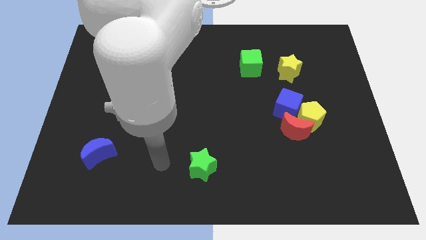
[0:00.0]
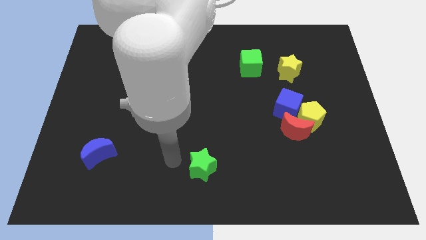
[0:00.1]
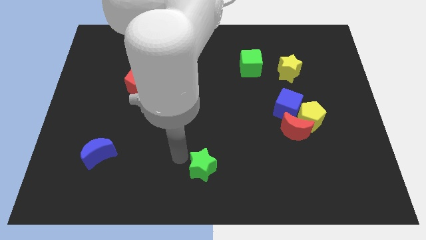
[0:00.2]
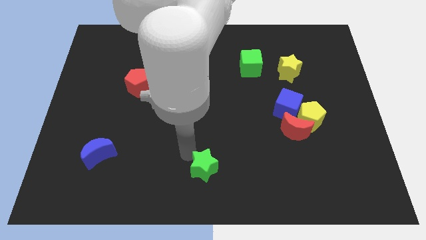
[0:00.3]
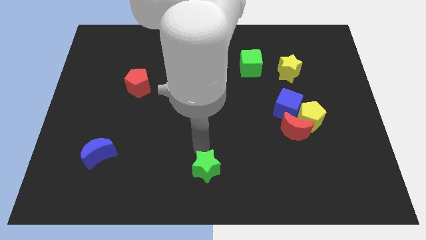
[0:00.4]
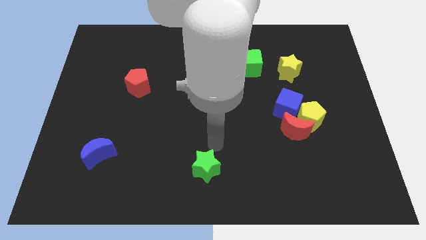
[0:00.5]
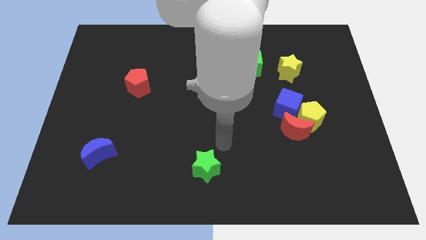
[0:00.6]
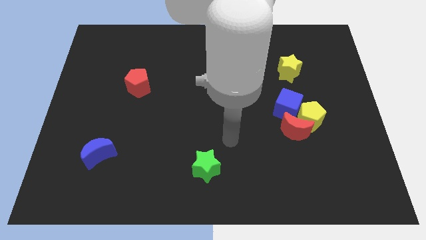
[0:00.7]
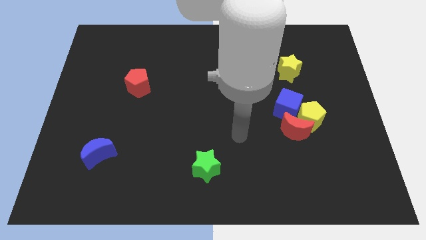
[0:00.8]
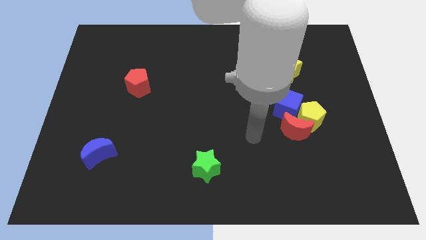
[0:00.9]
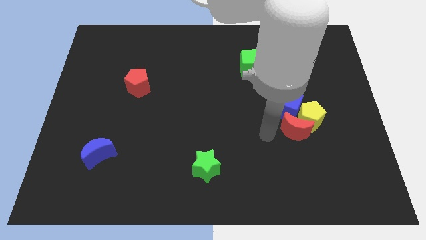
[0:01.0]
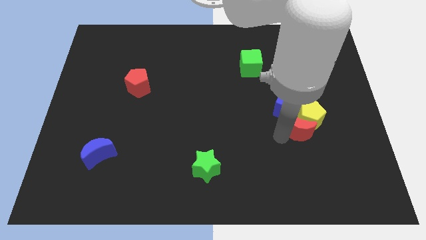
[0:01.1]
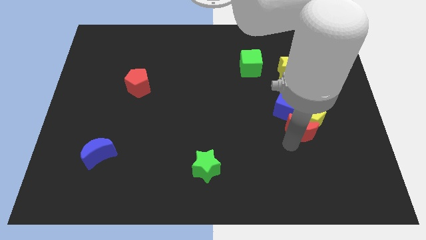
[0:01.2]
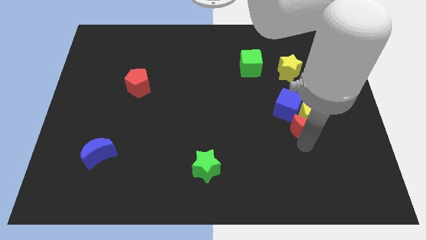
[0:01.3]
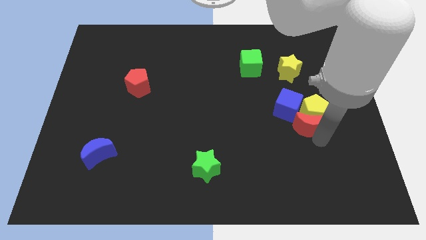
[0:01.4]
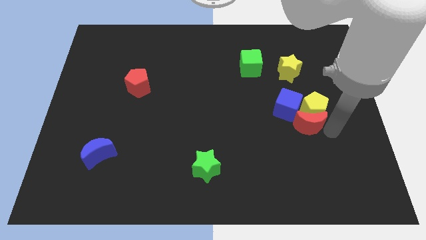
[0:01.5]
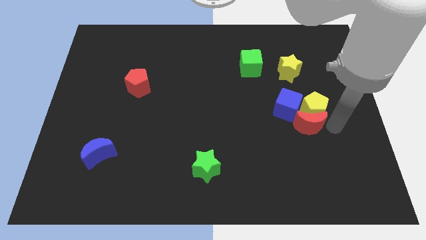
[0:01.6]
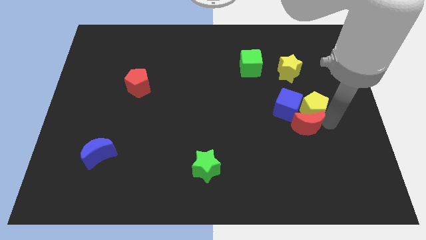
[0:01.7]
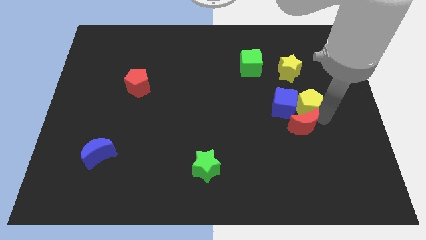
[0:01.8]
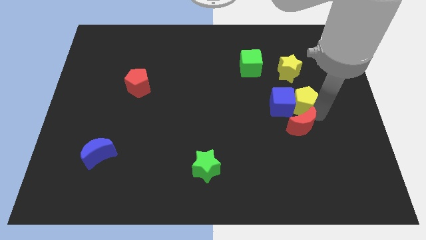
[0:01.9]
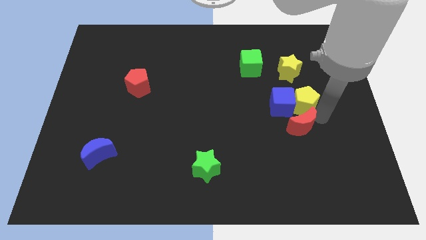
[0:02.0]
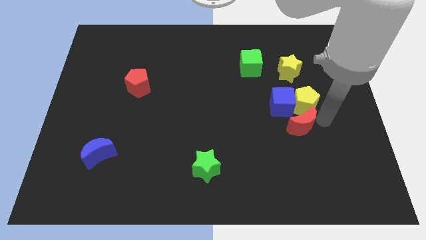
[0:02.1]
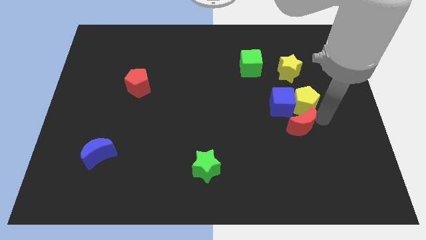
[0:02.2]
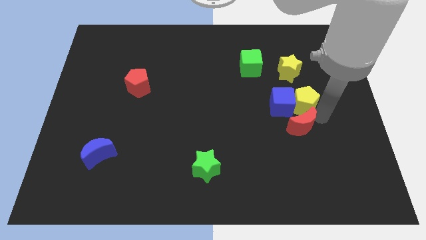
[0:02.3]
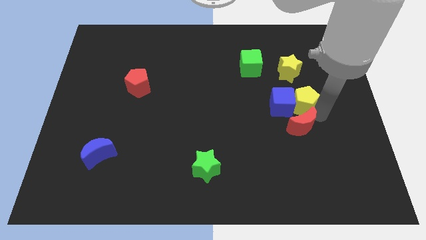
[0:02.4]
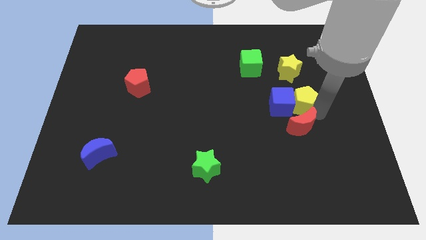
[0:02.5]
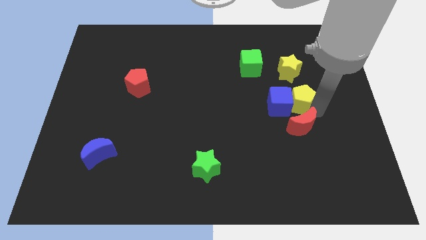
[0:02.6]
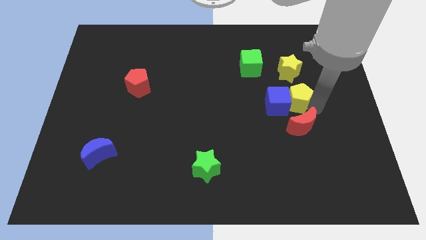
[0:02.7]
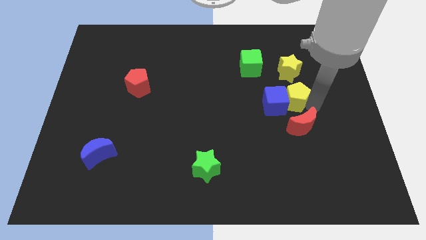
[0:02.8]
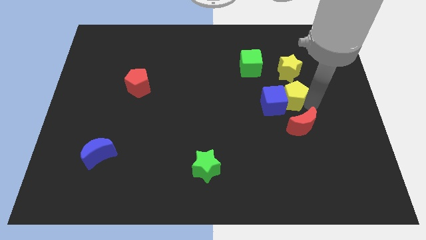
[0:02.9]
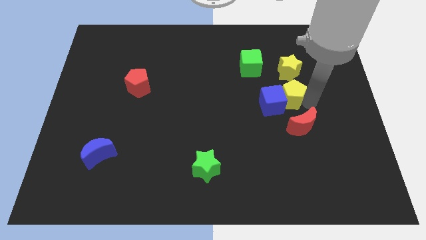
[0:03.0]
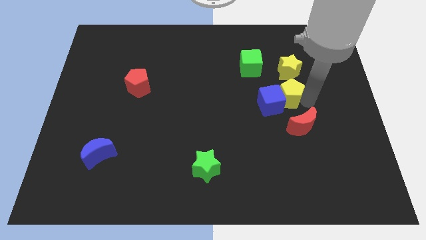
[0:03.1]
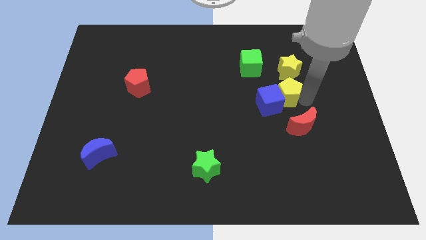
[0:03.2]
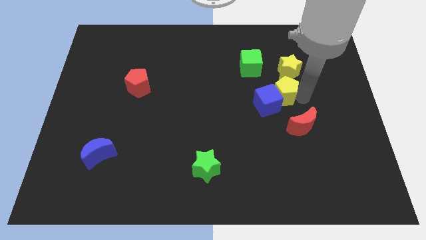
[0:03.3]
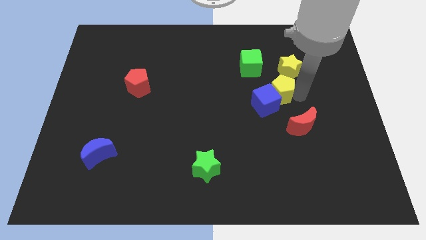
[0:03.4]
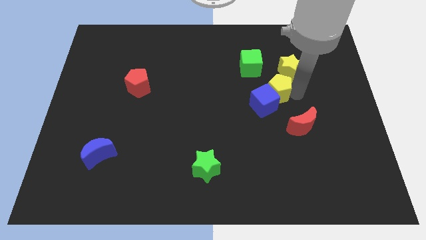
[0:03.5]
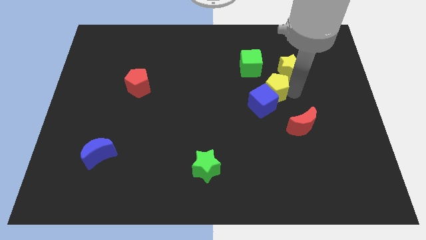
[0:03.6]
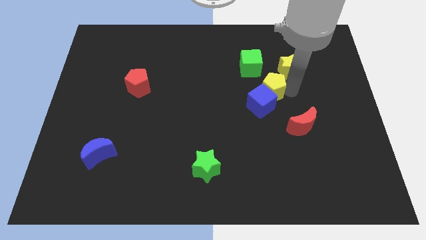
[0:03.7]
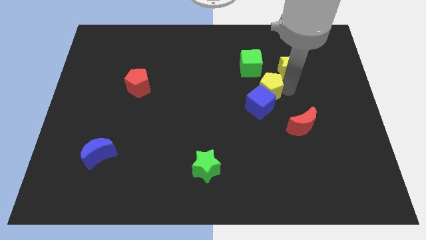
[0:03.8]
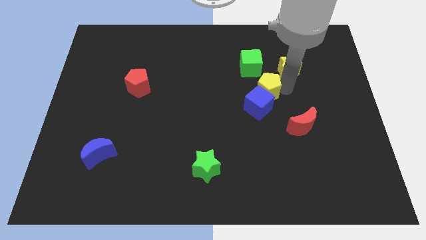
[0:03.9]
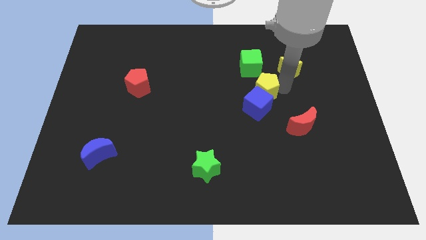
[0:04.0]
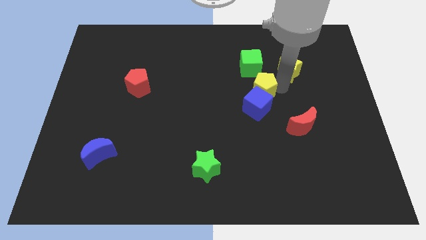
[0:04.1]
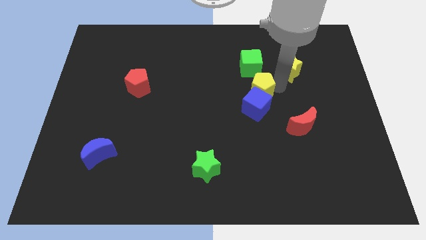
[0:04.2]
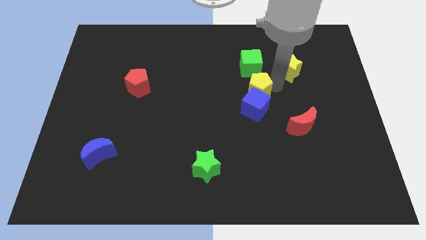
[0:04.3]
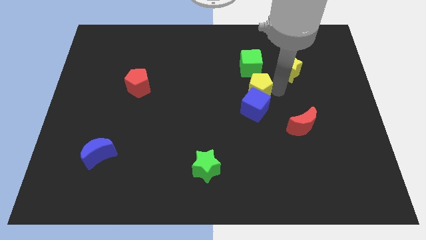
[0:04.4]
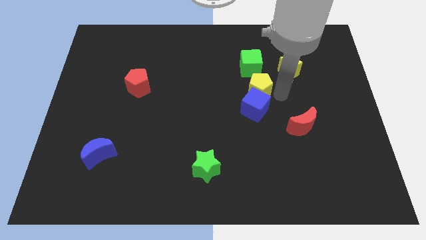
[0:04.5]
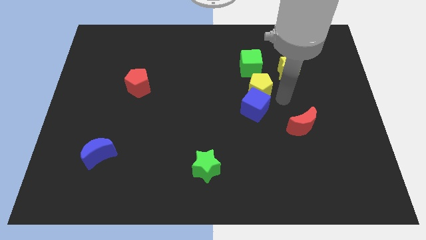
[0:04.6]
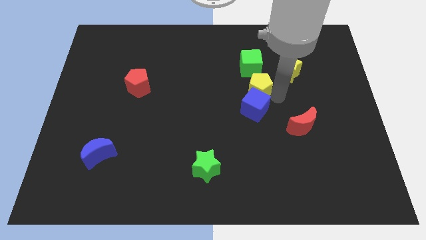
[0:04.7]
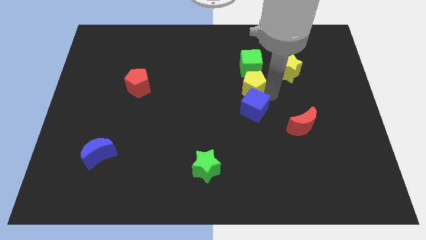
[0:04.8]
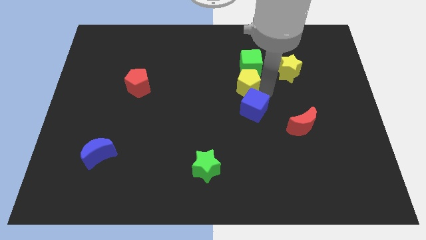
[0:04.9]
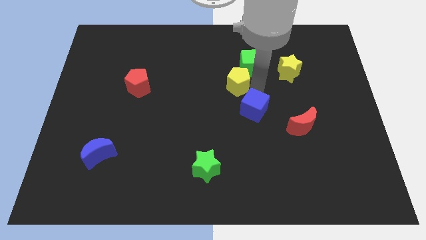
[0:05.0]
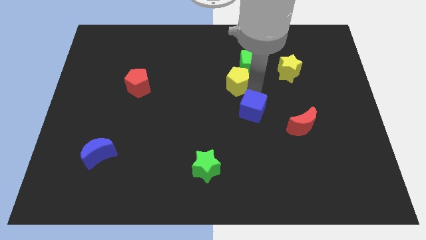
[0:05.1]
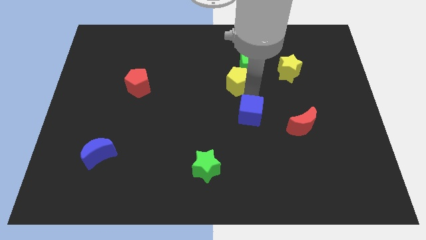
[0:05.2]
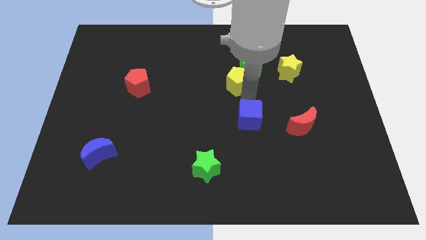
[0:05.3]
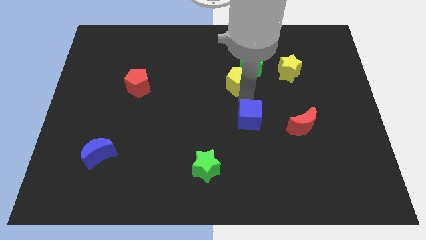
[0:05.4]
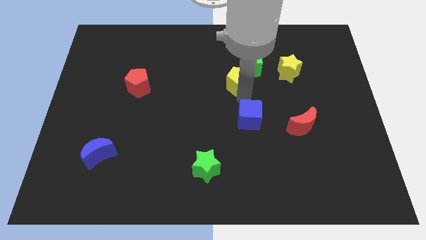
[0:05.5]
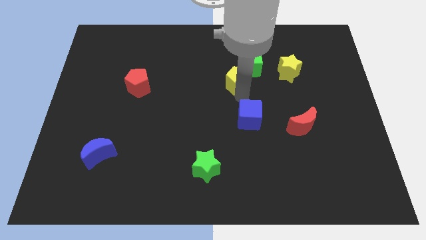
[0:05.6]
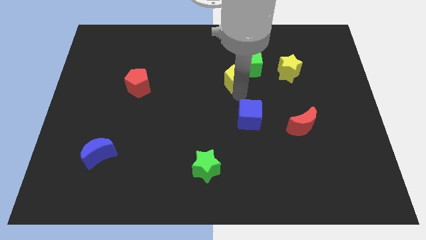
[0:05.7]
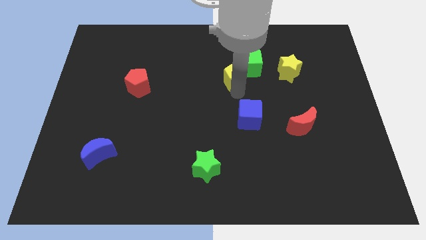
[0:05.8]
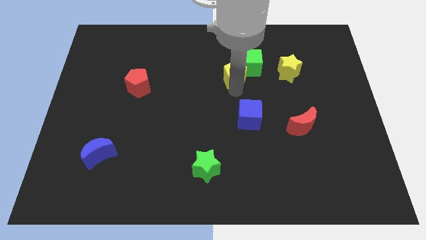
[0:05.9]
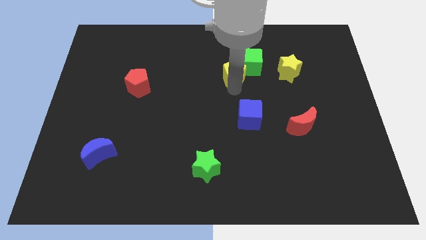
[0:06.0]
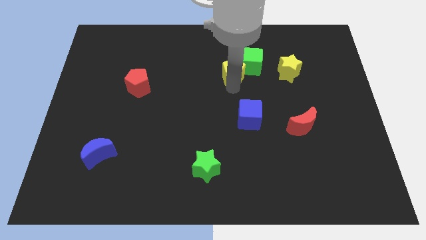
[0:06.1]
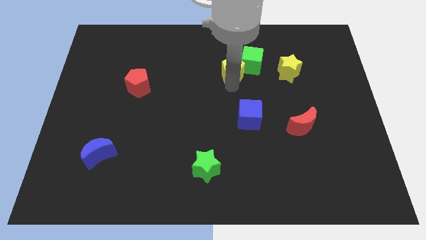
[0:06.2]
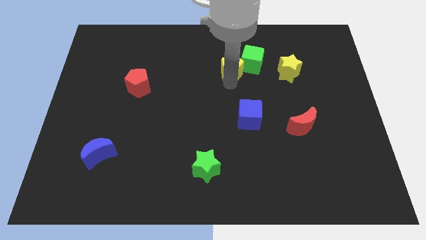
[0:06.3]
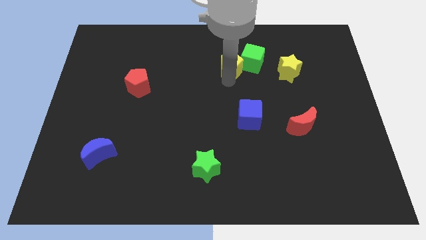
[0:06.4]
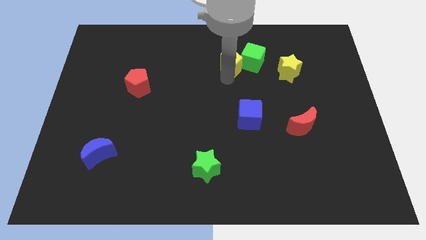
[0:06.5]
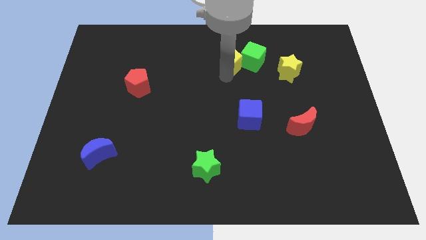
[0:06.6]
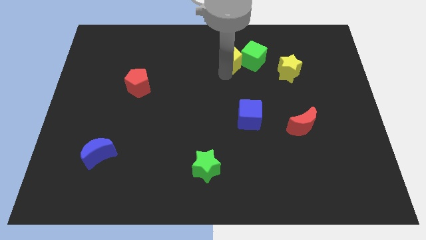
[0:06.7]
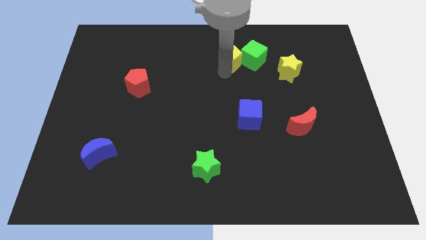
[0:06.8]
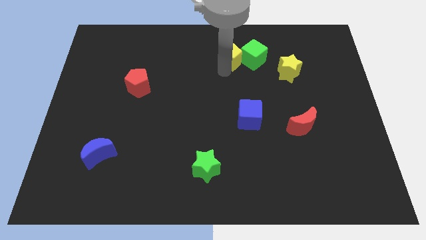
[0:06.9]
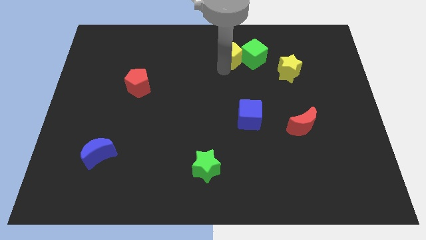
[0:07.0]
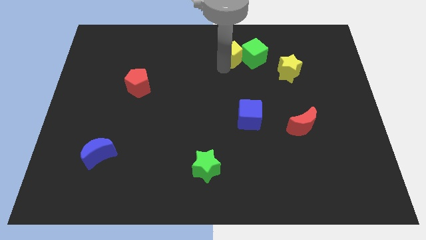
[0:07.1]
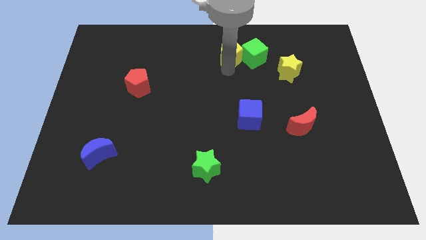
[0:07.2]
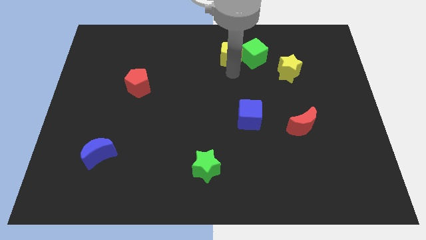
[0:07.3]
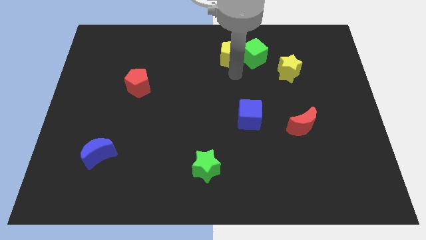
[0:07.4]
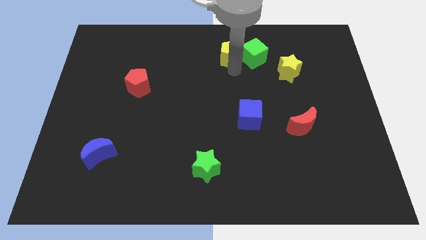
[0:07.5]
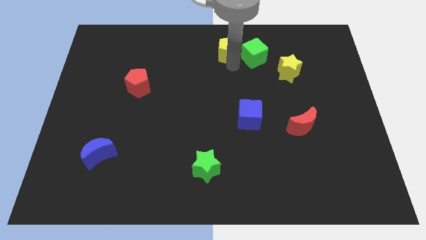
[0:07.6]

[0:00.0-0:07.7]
push the yellow pentagon to the top side
